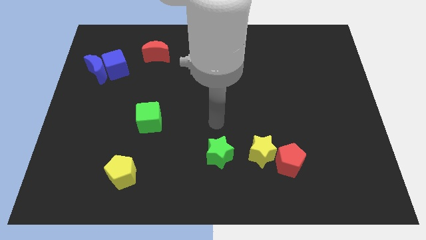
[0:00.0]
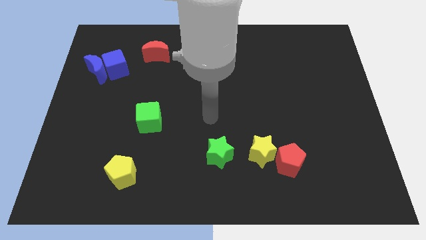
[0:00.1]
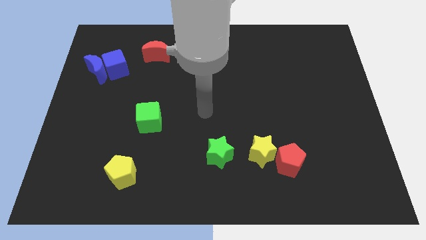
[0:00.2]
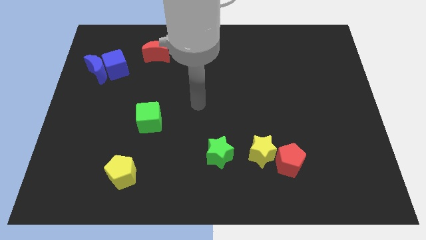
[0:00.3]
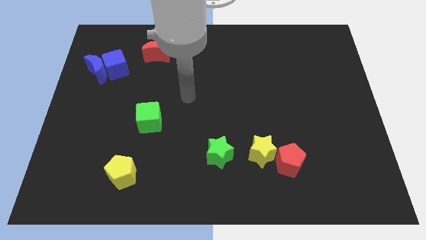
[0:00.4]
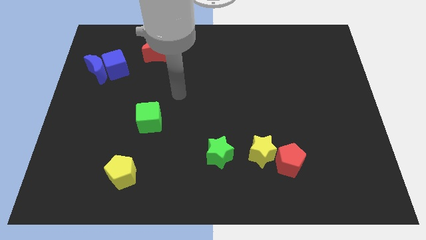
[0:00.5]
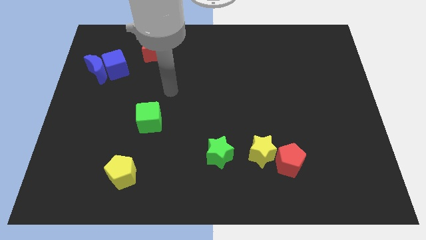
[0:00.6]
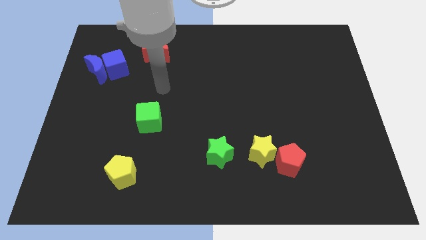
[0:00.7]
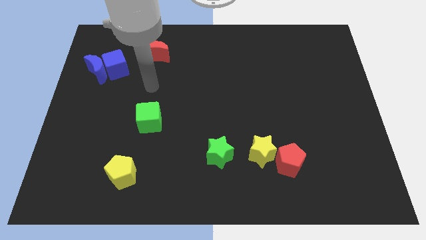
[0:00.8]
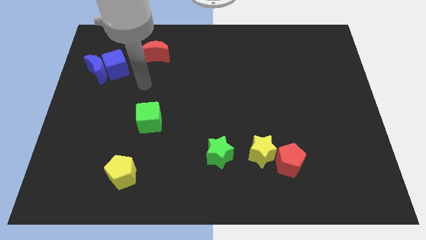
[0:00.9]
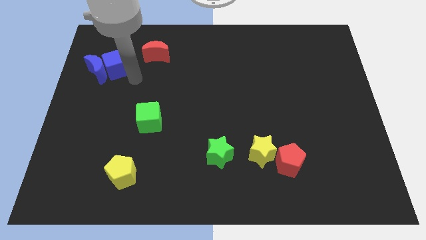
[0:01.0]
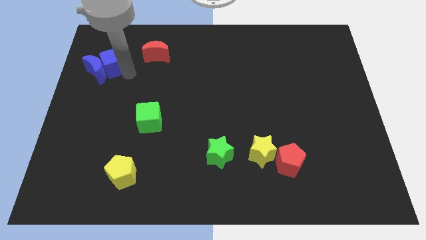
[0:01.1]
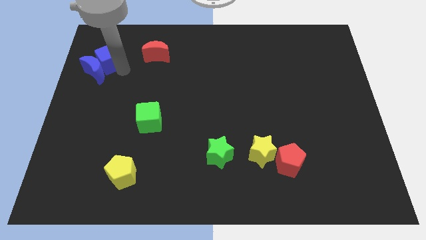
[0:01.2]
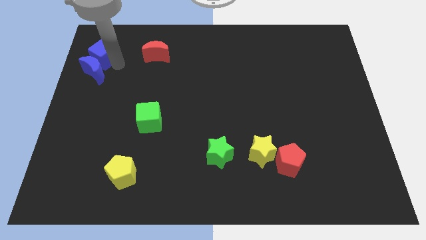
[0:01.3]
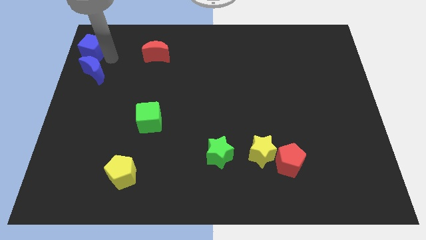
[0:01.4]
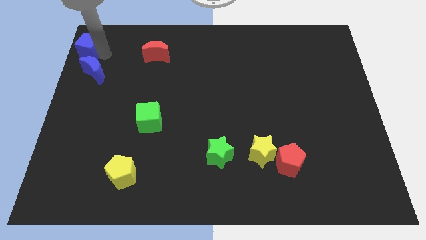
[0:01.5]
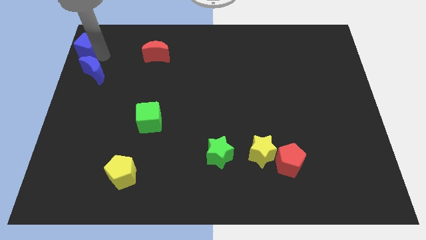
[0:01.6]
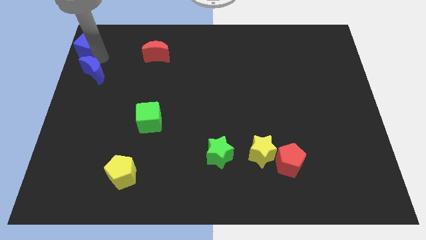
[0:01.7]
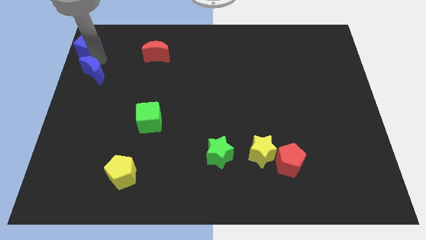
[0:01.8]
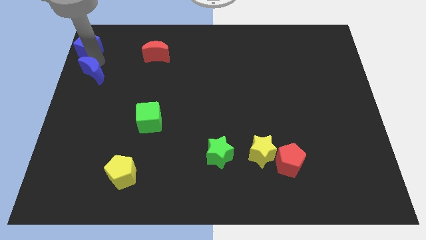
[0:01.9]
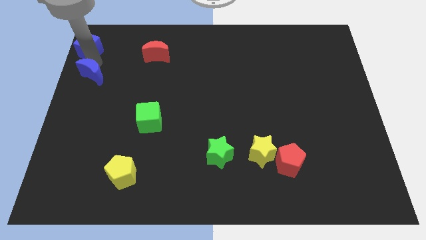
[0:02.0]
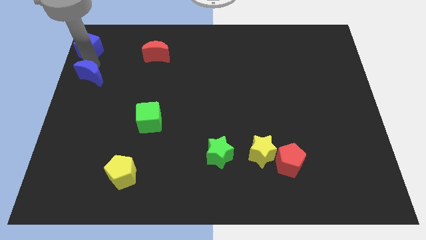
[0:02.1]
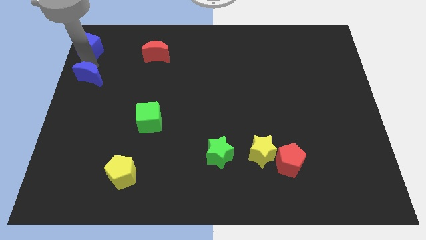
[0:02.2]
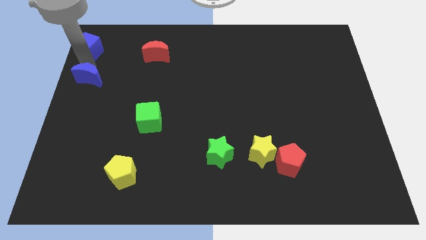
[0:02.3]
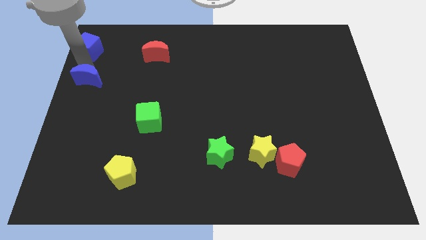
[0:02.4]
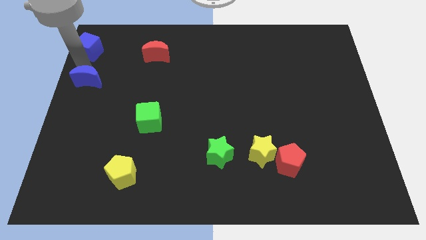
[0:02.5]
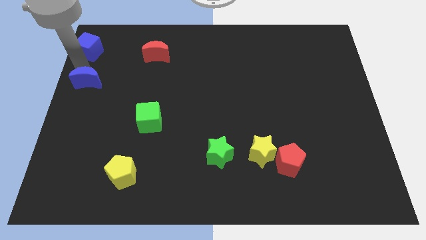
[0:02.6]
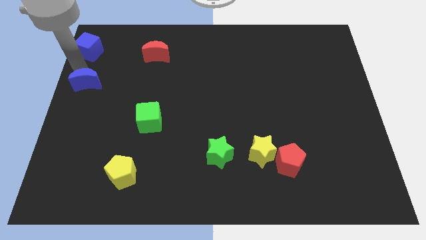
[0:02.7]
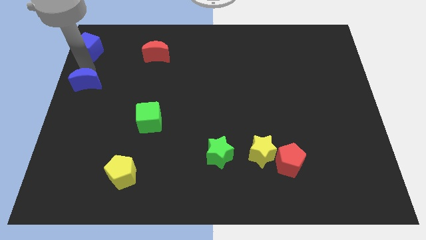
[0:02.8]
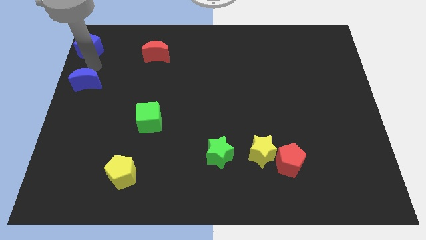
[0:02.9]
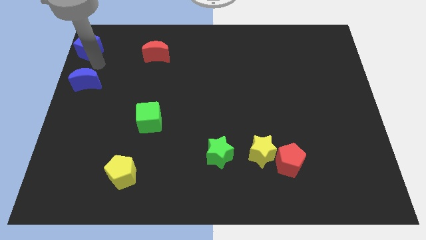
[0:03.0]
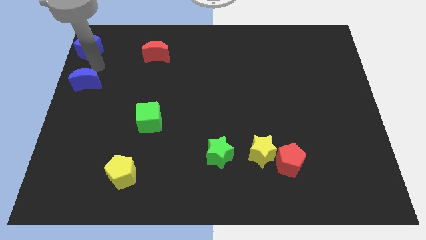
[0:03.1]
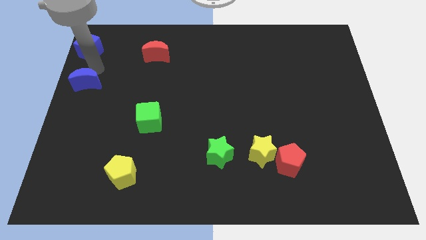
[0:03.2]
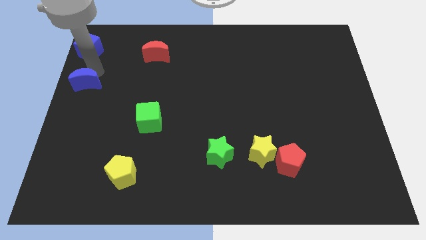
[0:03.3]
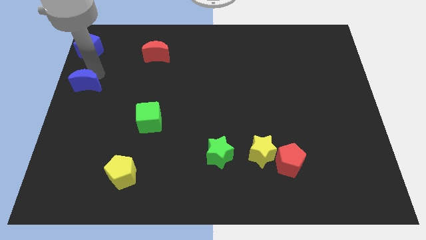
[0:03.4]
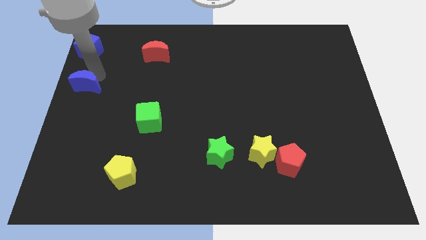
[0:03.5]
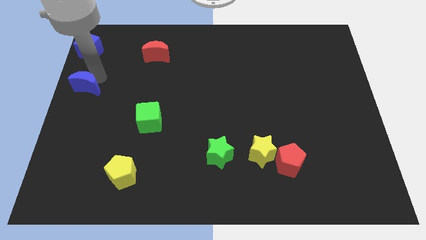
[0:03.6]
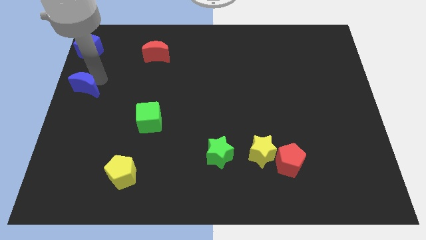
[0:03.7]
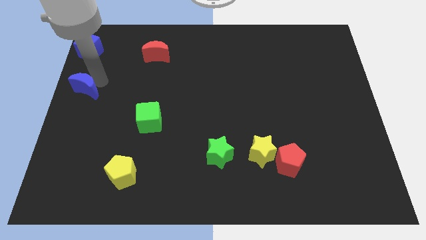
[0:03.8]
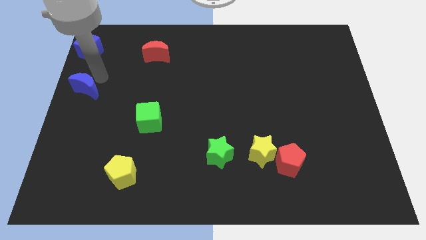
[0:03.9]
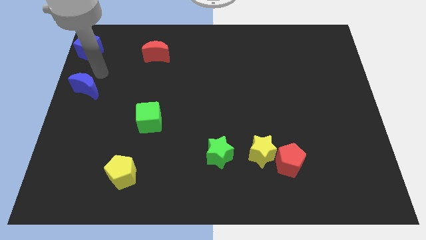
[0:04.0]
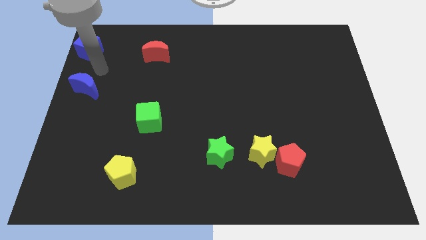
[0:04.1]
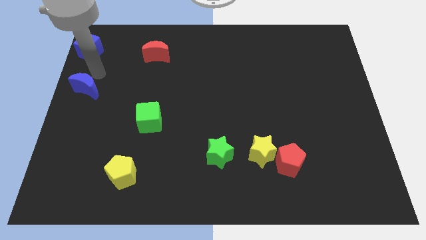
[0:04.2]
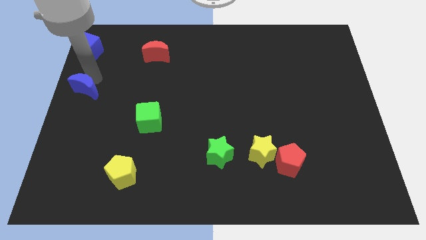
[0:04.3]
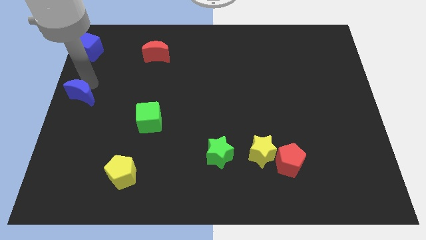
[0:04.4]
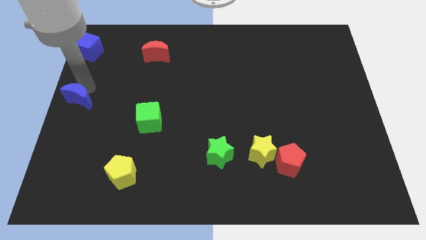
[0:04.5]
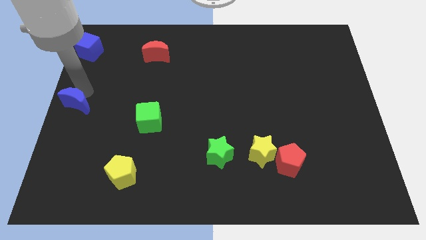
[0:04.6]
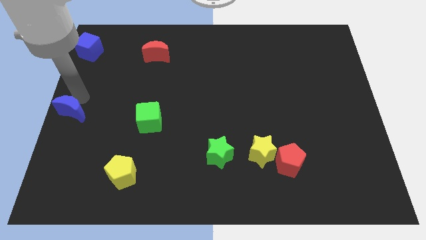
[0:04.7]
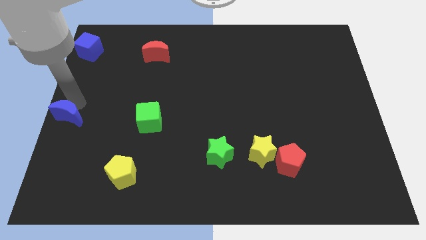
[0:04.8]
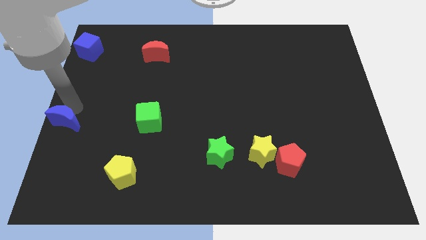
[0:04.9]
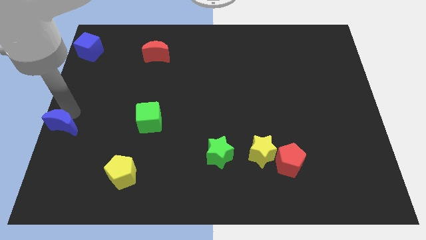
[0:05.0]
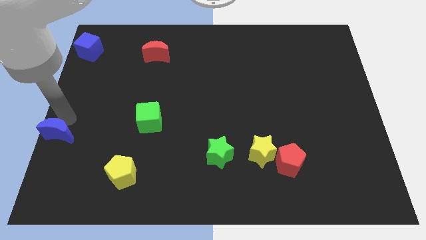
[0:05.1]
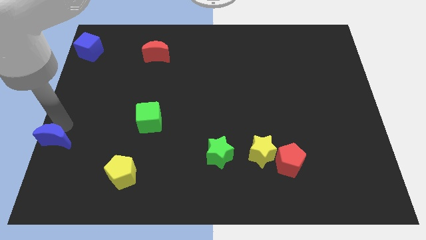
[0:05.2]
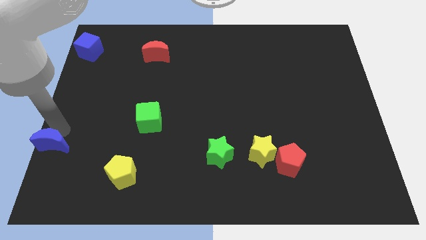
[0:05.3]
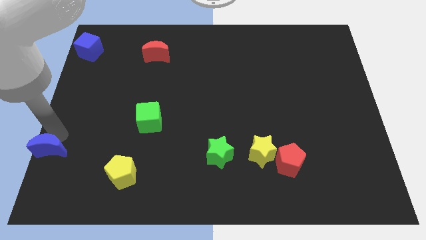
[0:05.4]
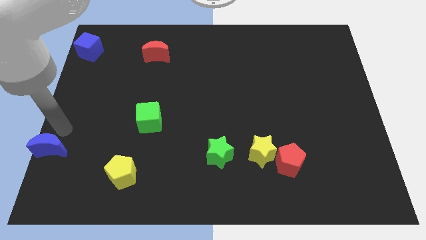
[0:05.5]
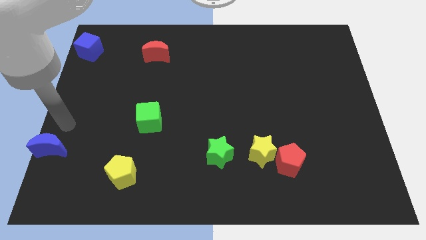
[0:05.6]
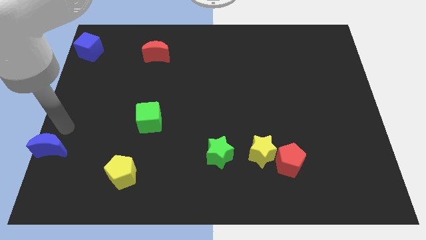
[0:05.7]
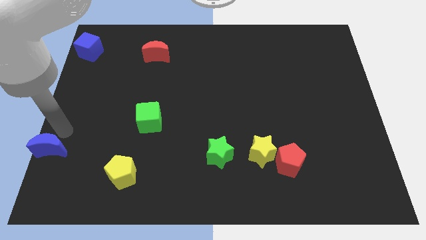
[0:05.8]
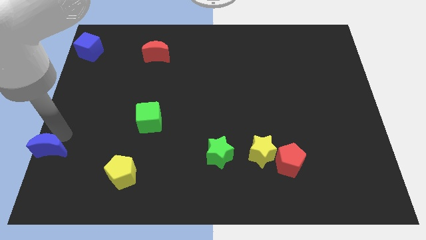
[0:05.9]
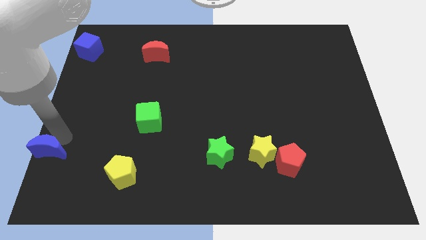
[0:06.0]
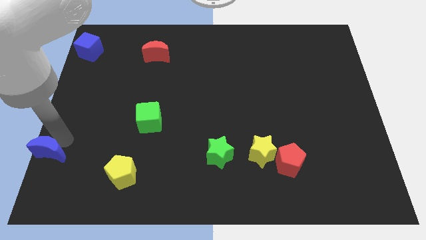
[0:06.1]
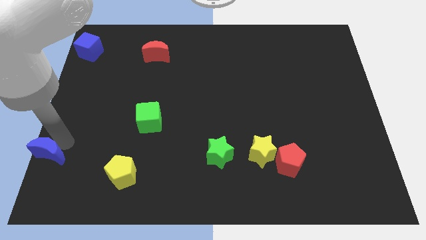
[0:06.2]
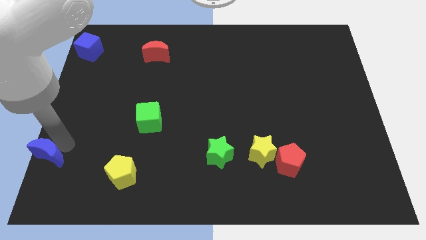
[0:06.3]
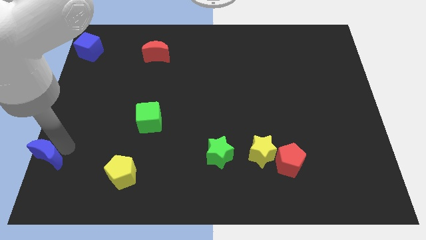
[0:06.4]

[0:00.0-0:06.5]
push the blue moon to the bottom left corner
